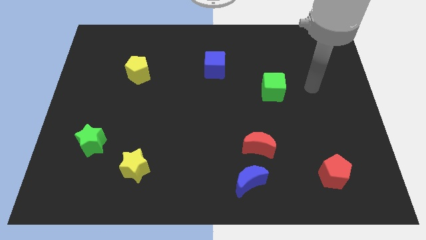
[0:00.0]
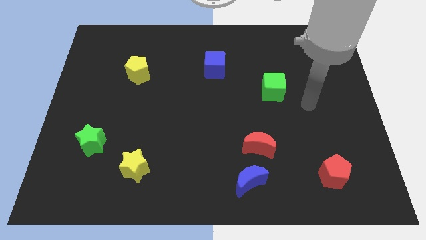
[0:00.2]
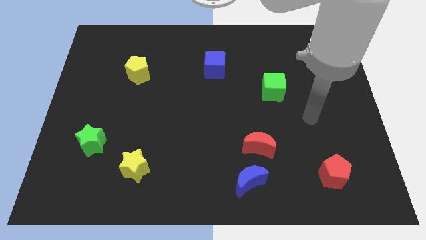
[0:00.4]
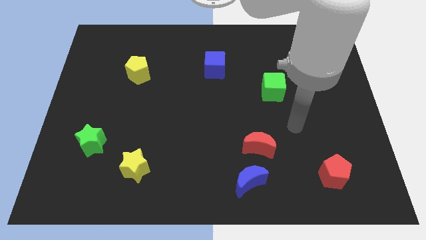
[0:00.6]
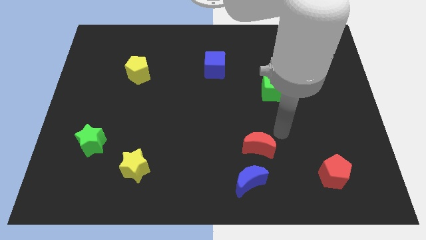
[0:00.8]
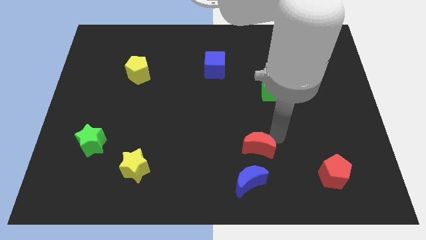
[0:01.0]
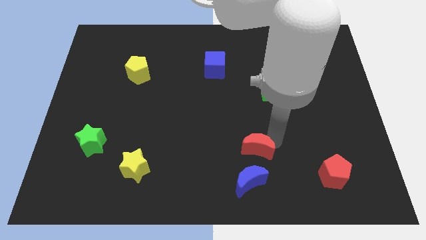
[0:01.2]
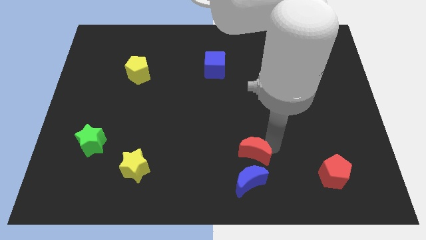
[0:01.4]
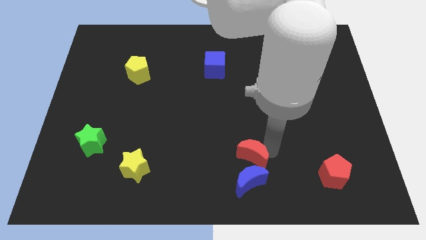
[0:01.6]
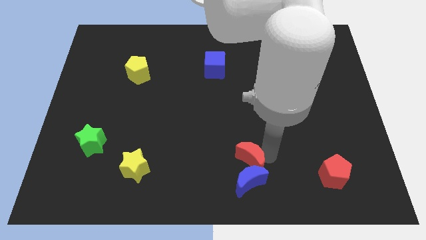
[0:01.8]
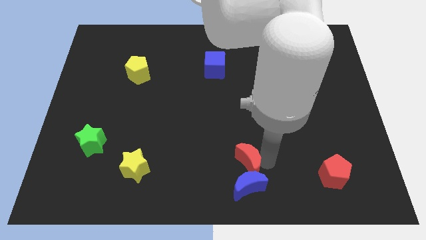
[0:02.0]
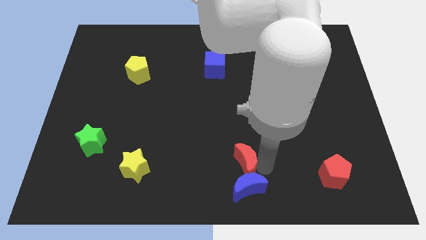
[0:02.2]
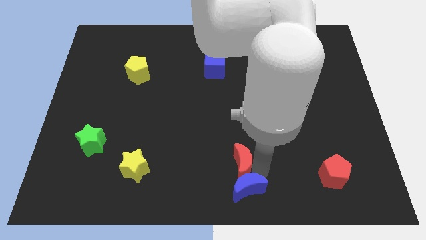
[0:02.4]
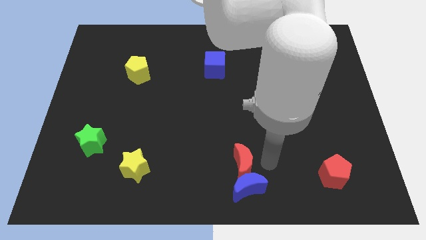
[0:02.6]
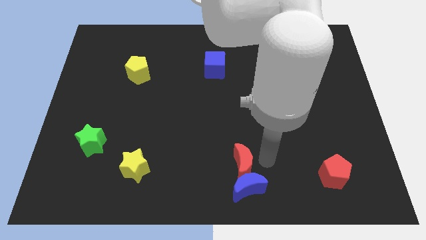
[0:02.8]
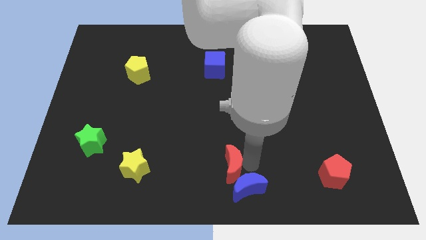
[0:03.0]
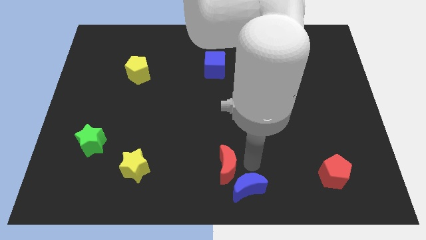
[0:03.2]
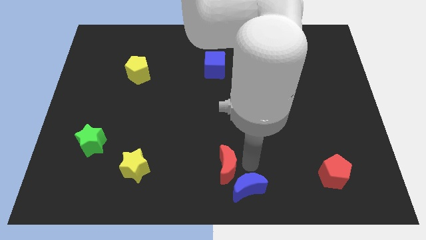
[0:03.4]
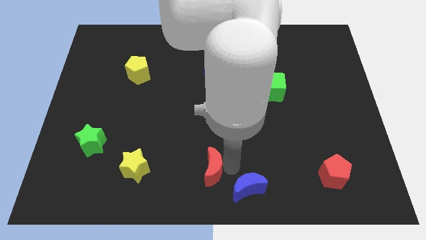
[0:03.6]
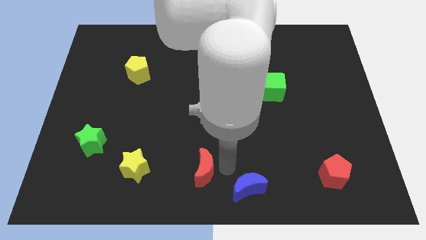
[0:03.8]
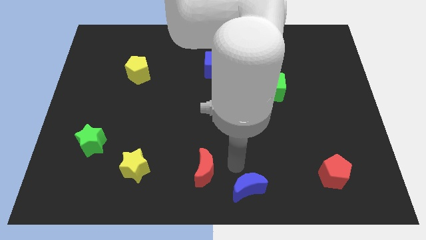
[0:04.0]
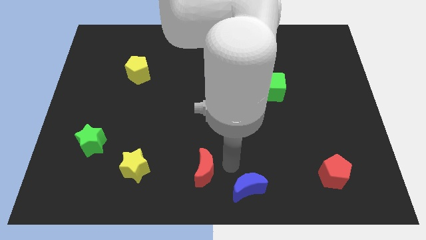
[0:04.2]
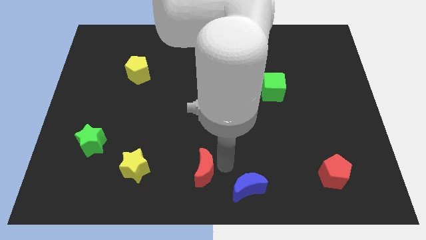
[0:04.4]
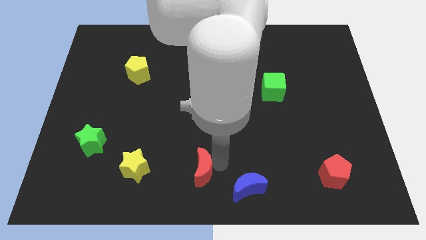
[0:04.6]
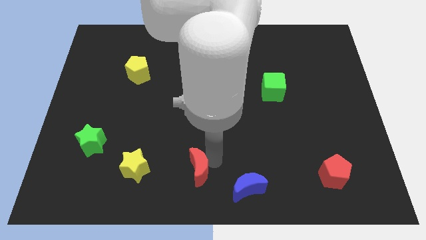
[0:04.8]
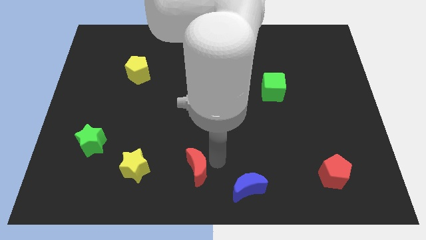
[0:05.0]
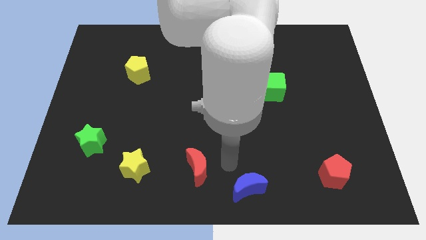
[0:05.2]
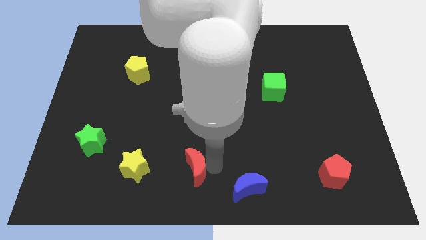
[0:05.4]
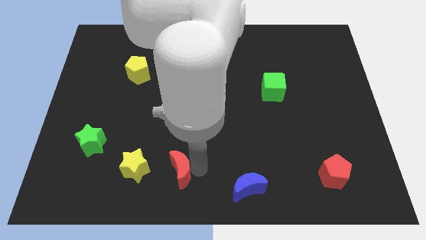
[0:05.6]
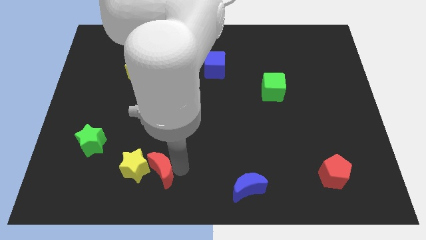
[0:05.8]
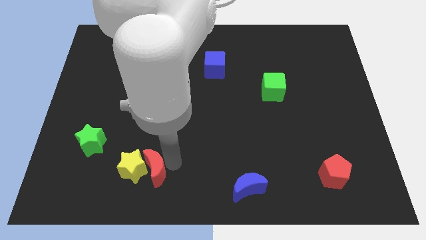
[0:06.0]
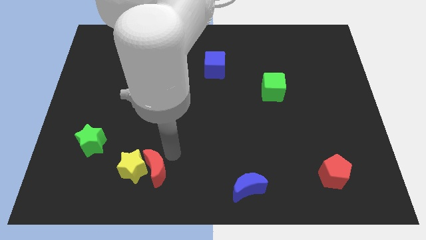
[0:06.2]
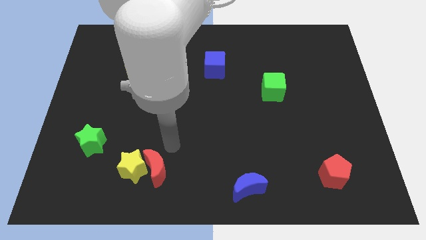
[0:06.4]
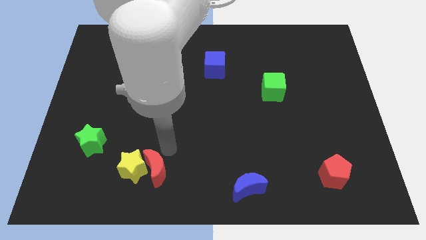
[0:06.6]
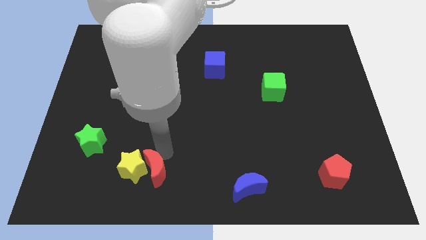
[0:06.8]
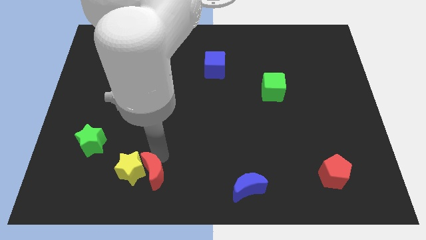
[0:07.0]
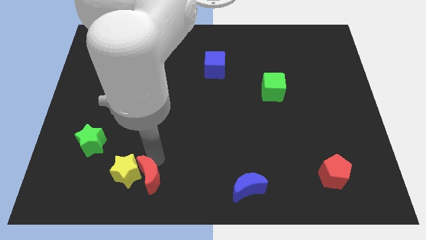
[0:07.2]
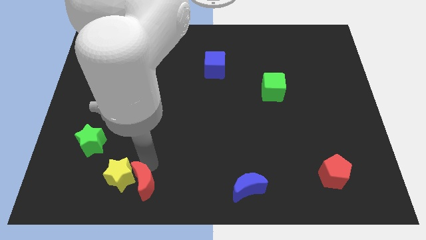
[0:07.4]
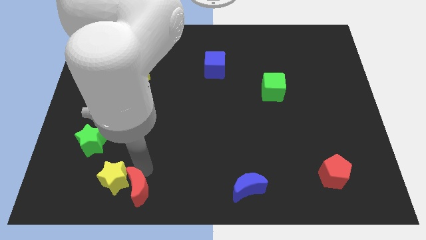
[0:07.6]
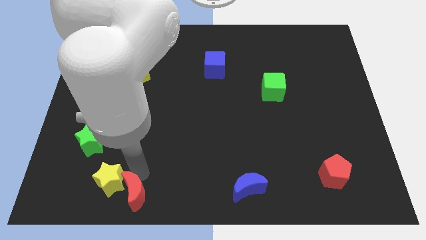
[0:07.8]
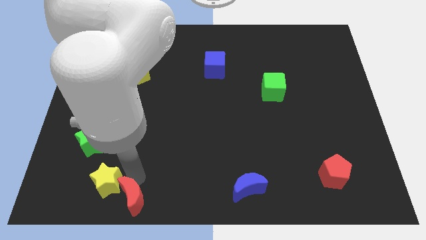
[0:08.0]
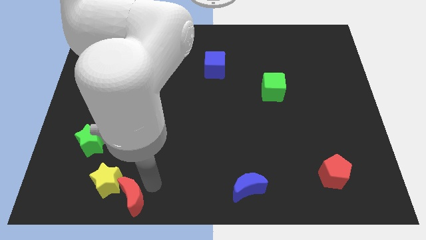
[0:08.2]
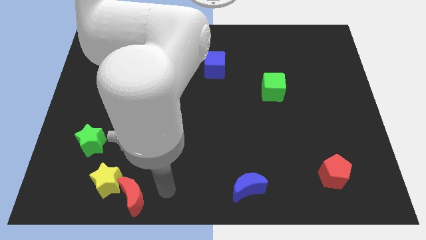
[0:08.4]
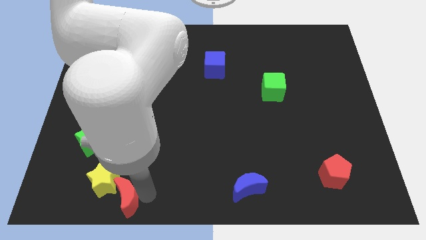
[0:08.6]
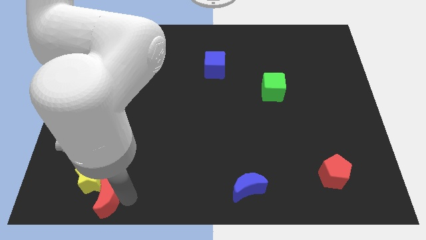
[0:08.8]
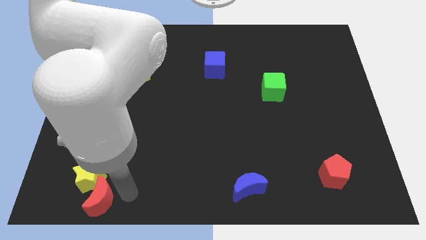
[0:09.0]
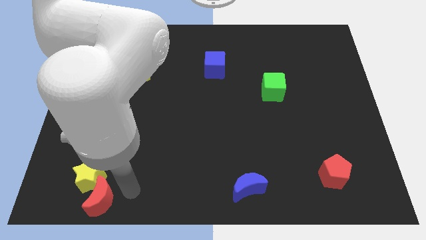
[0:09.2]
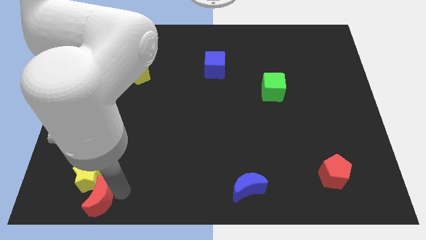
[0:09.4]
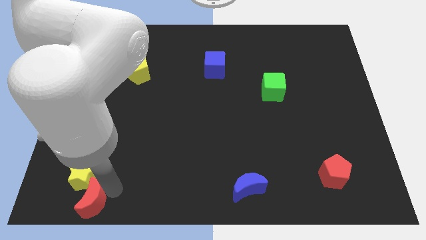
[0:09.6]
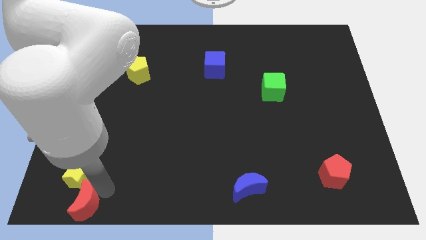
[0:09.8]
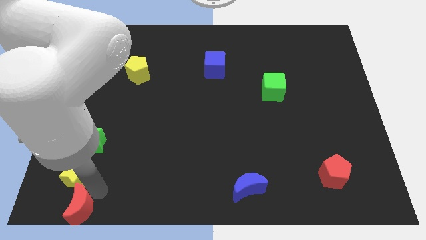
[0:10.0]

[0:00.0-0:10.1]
push the red moon to the bottom left corner

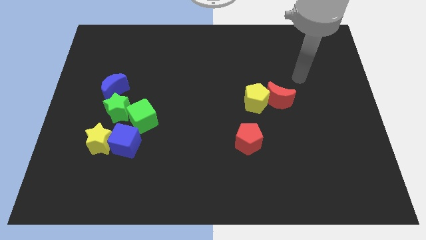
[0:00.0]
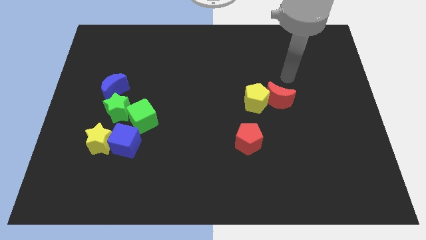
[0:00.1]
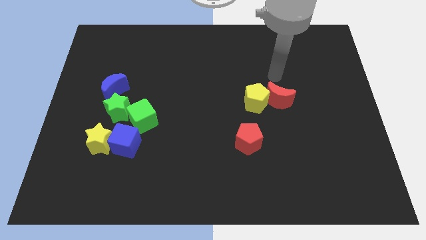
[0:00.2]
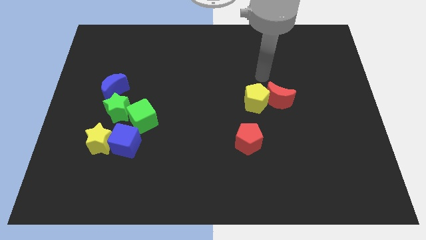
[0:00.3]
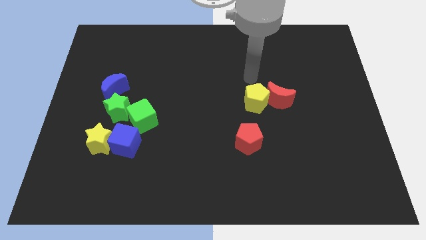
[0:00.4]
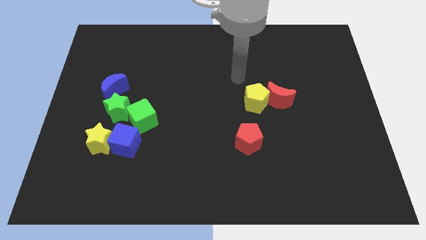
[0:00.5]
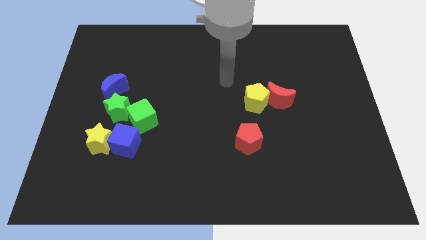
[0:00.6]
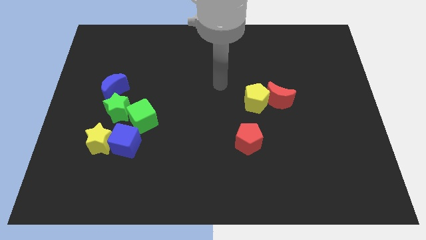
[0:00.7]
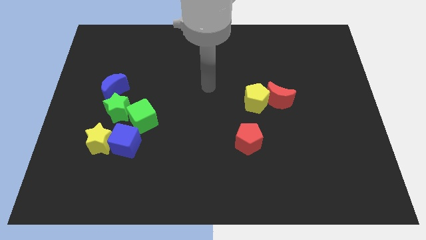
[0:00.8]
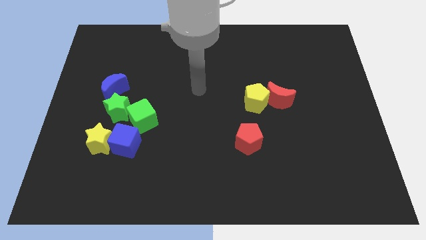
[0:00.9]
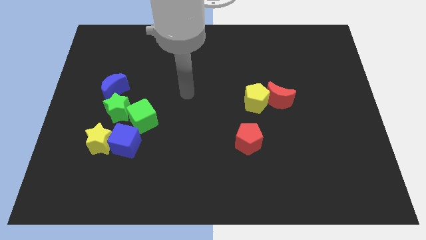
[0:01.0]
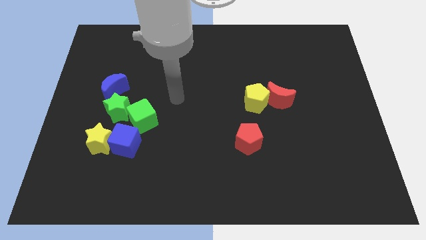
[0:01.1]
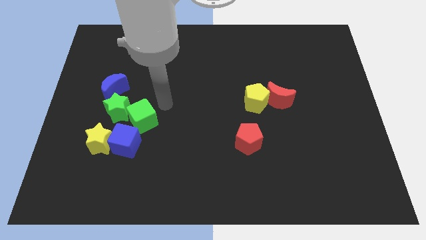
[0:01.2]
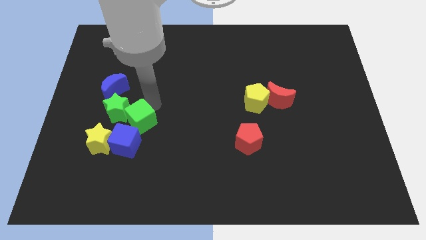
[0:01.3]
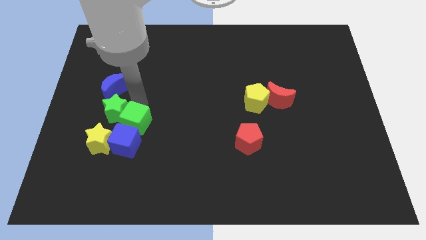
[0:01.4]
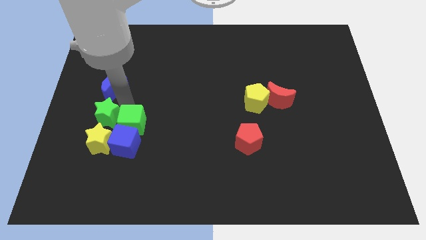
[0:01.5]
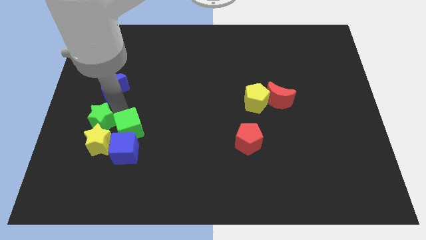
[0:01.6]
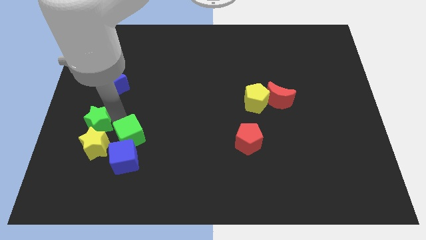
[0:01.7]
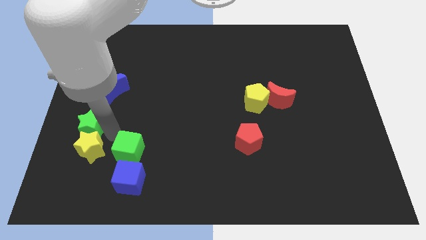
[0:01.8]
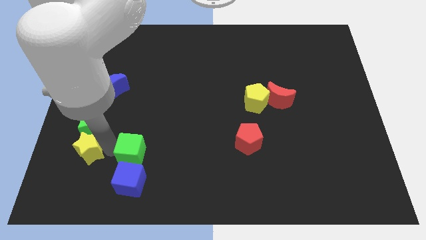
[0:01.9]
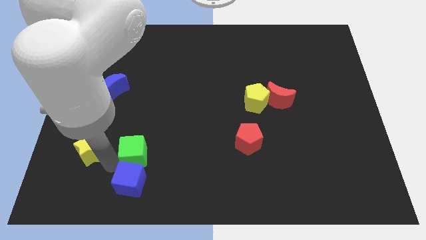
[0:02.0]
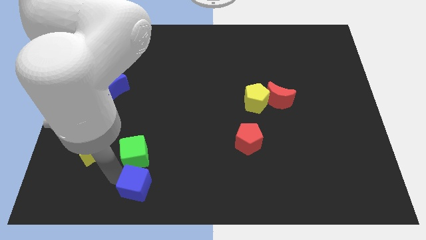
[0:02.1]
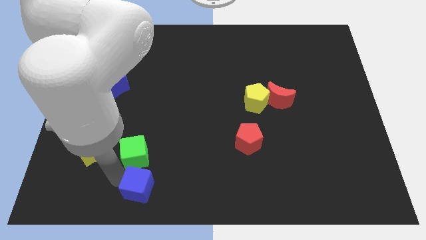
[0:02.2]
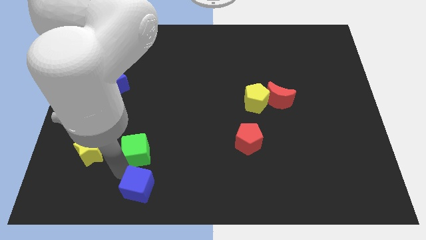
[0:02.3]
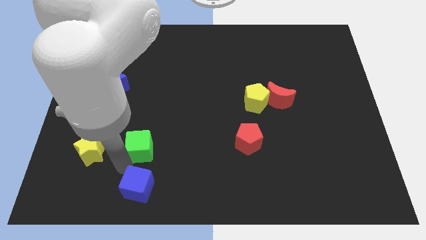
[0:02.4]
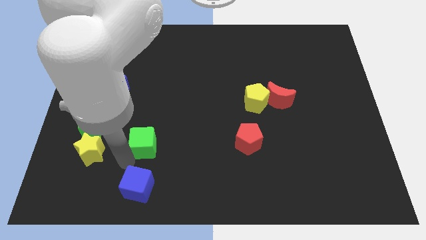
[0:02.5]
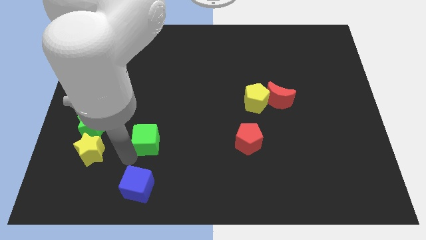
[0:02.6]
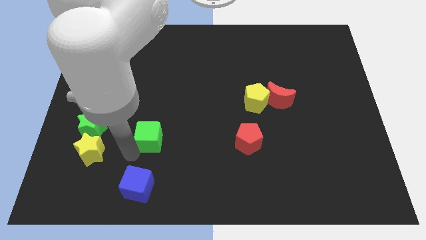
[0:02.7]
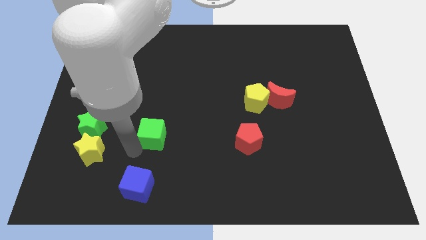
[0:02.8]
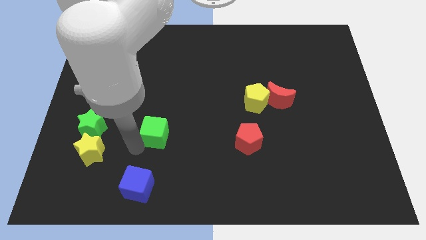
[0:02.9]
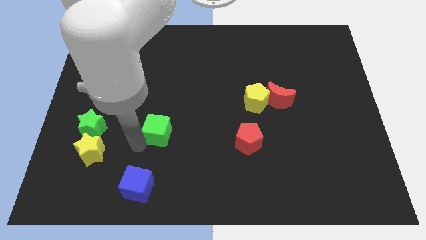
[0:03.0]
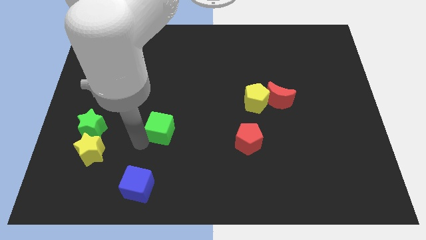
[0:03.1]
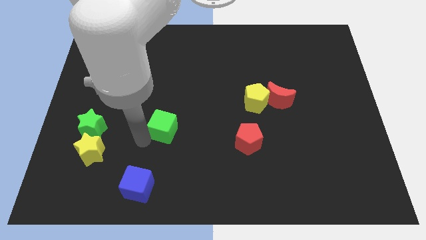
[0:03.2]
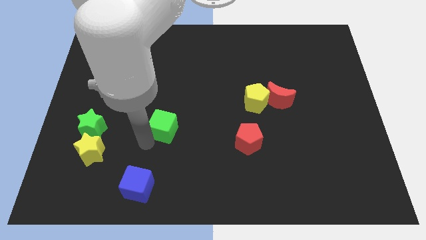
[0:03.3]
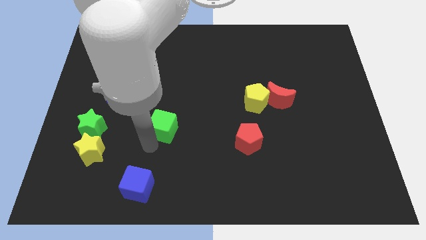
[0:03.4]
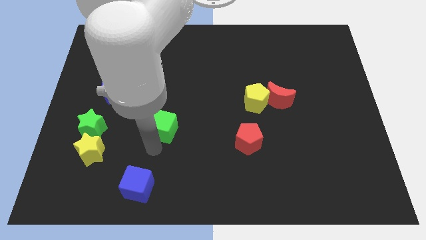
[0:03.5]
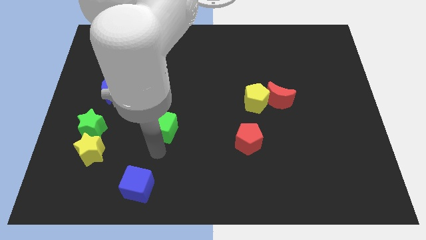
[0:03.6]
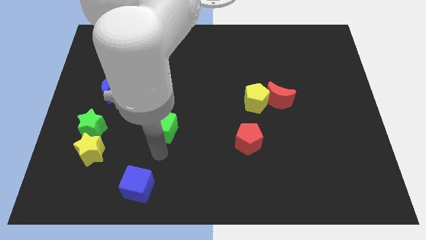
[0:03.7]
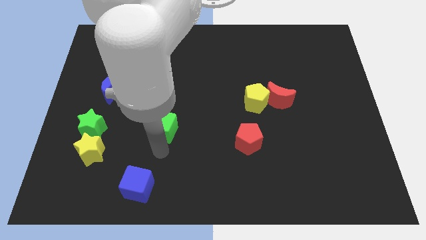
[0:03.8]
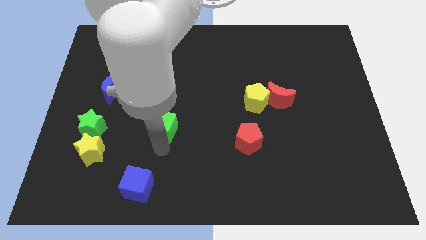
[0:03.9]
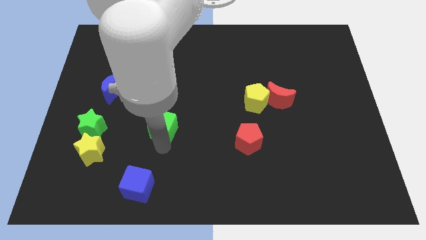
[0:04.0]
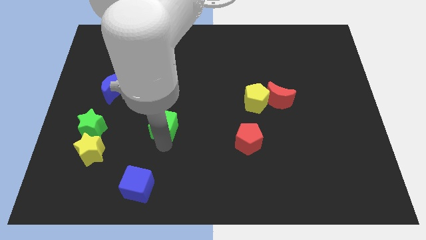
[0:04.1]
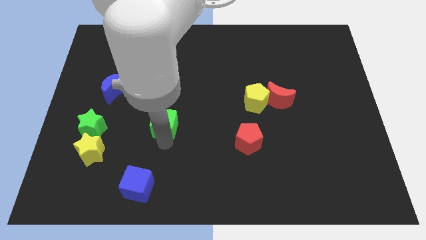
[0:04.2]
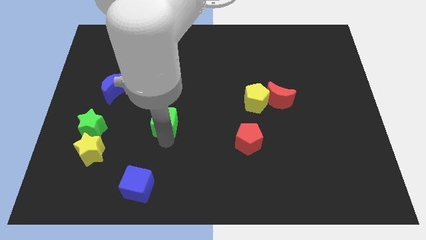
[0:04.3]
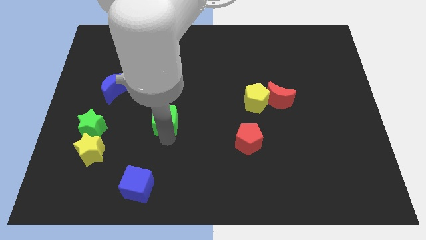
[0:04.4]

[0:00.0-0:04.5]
push the green cube to the middle of the board
